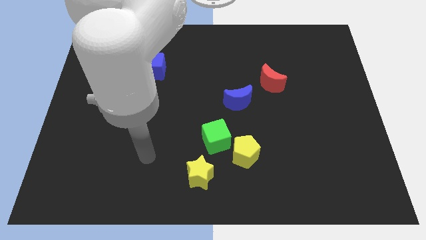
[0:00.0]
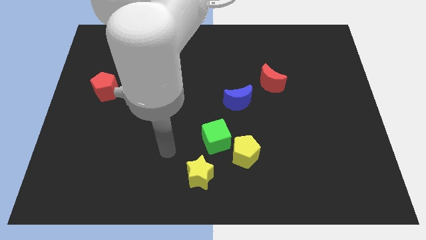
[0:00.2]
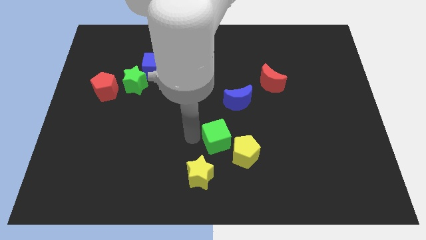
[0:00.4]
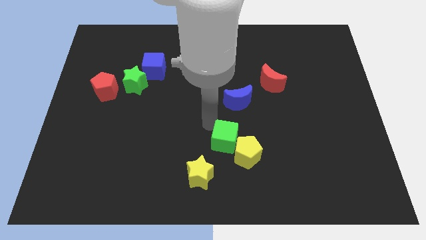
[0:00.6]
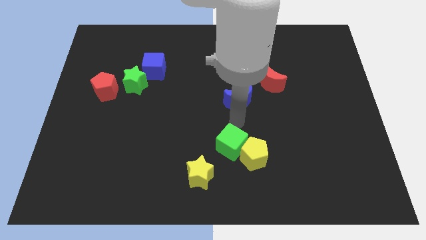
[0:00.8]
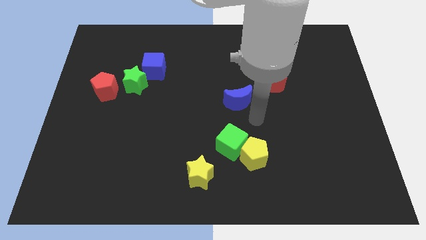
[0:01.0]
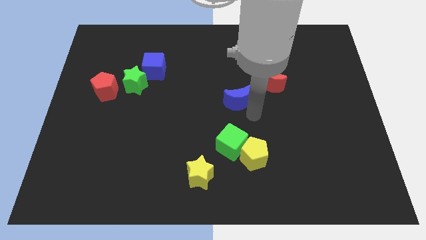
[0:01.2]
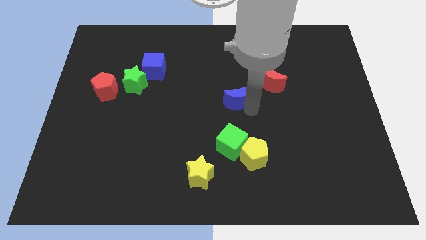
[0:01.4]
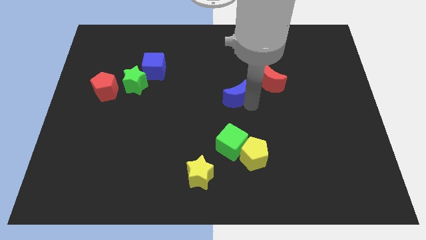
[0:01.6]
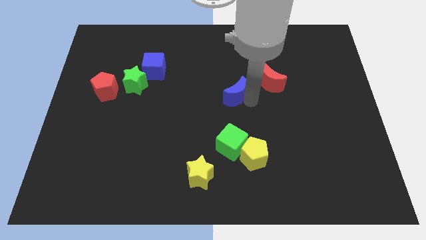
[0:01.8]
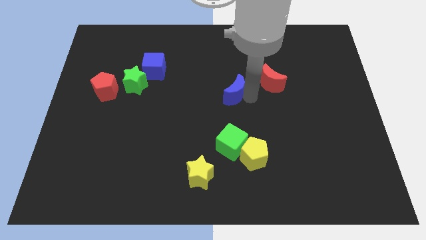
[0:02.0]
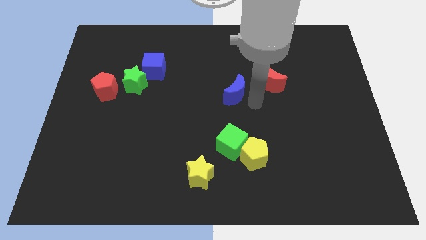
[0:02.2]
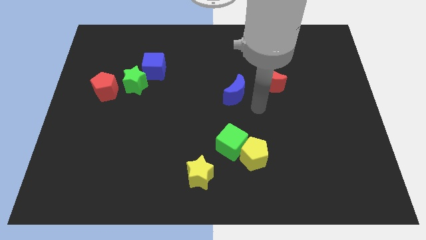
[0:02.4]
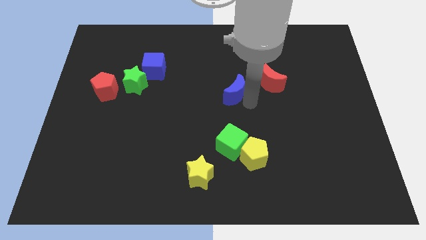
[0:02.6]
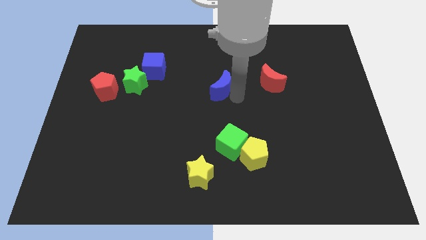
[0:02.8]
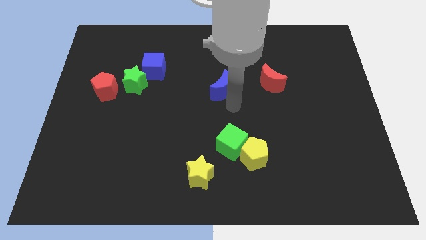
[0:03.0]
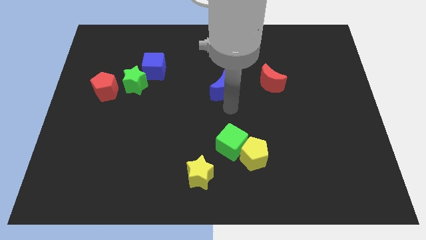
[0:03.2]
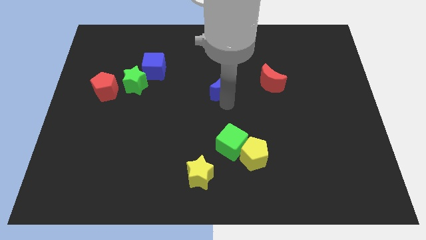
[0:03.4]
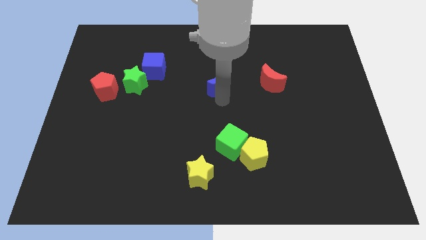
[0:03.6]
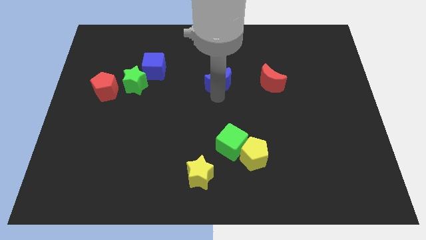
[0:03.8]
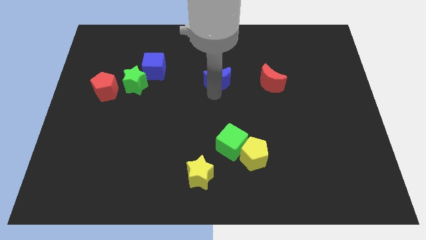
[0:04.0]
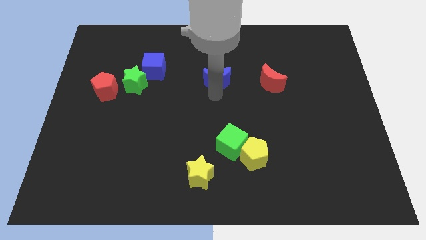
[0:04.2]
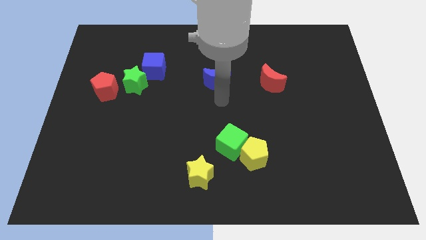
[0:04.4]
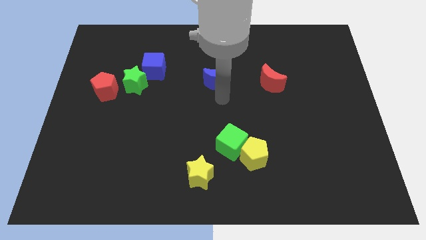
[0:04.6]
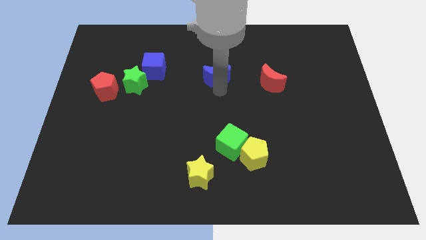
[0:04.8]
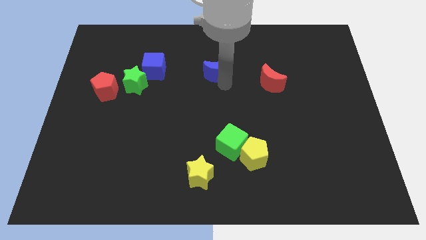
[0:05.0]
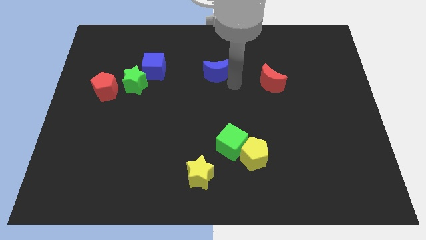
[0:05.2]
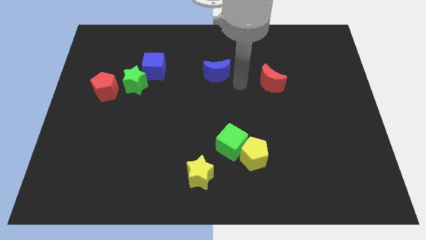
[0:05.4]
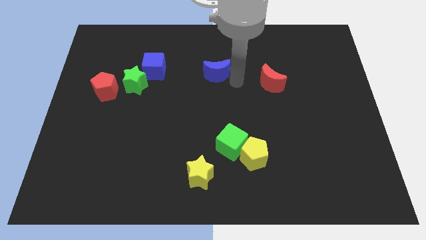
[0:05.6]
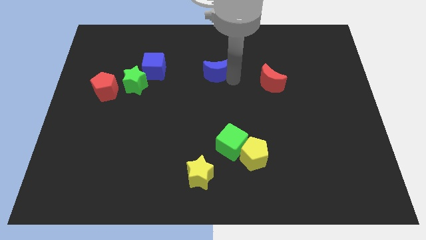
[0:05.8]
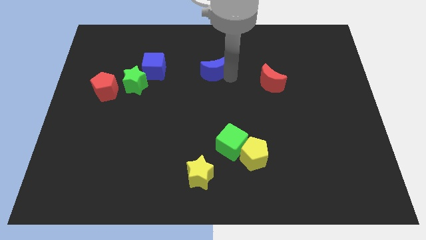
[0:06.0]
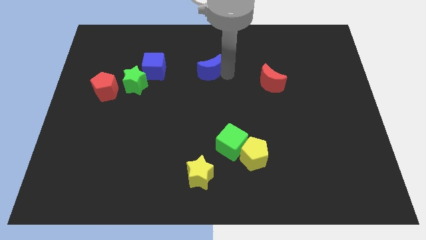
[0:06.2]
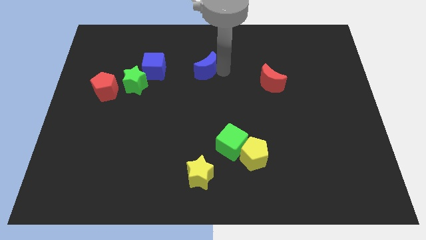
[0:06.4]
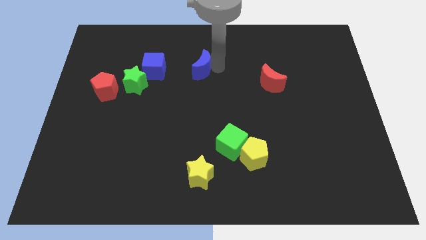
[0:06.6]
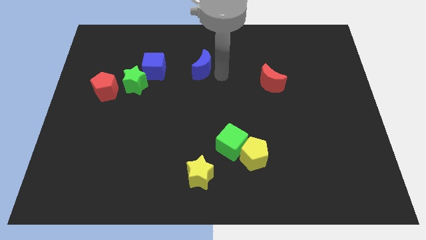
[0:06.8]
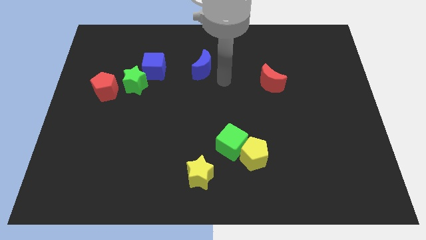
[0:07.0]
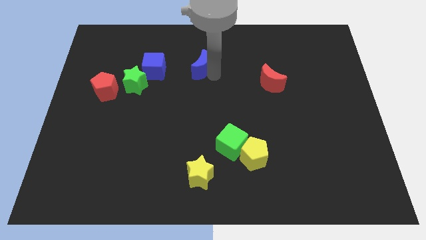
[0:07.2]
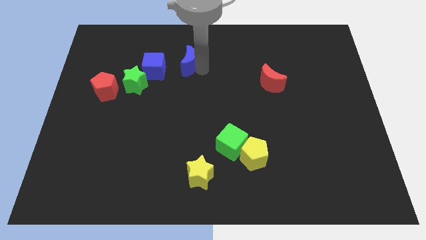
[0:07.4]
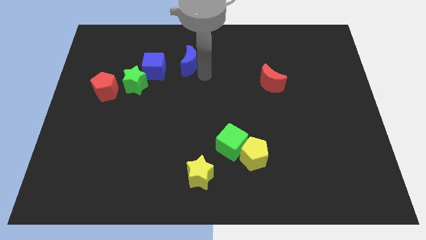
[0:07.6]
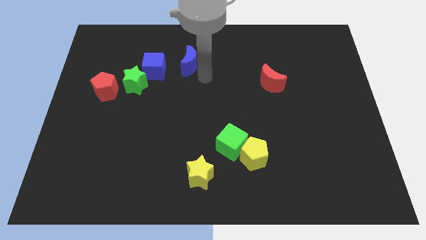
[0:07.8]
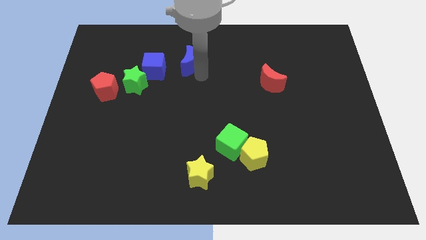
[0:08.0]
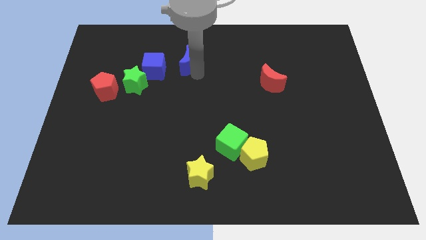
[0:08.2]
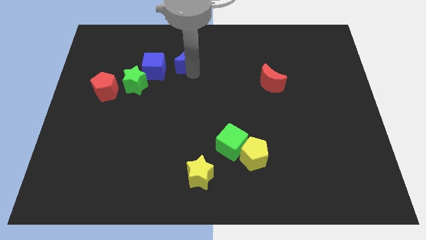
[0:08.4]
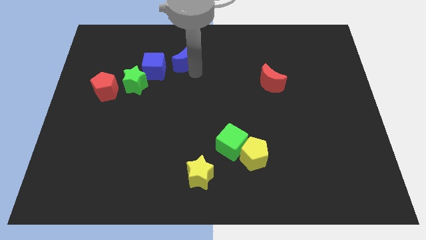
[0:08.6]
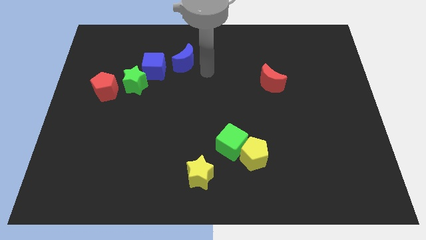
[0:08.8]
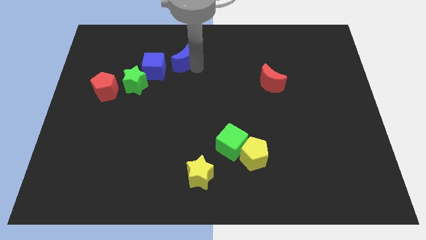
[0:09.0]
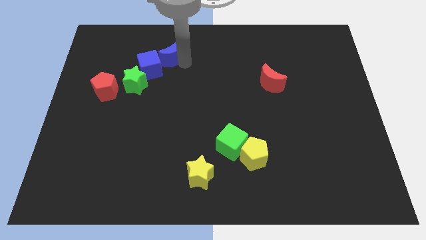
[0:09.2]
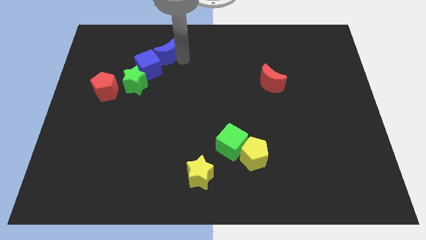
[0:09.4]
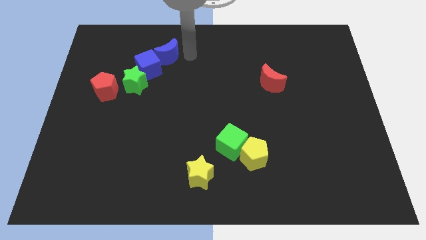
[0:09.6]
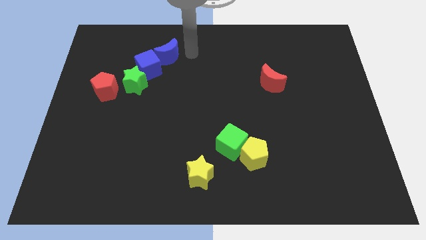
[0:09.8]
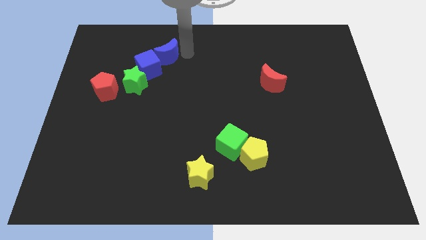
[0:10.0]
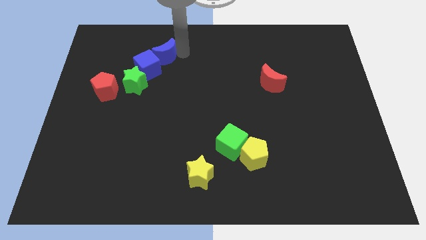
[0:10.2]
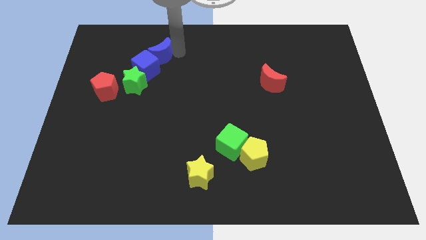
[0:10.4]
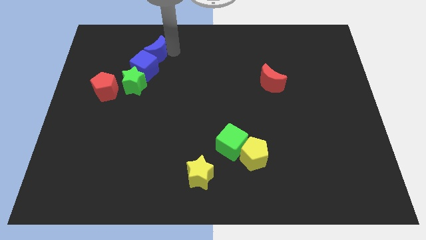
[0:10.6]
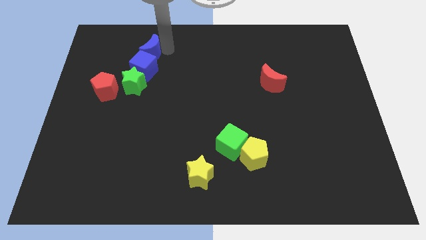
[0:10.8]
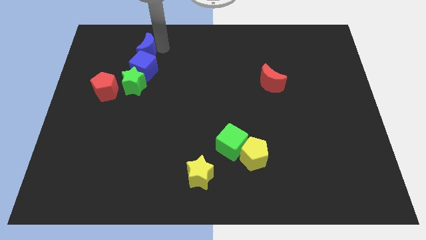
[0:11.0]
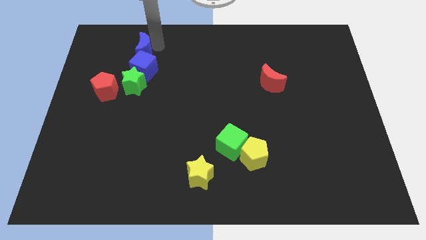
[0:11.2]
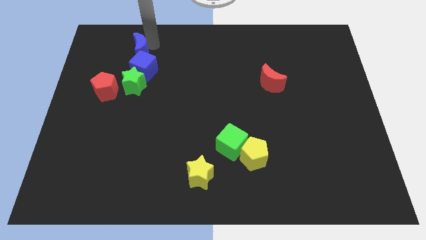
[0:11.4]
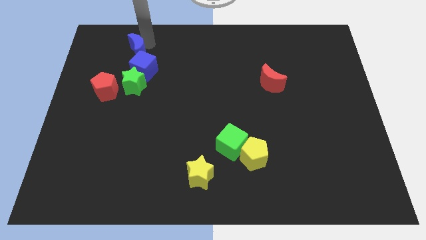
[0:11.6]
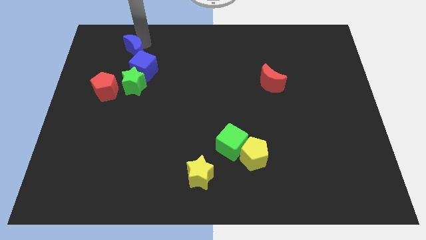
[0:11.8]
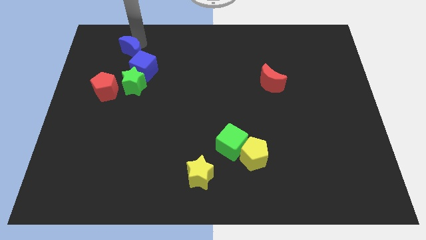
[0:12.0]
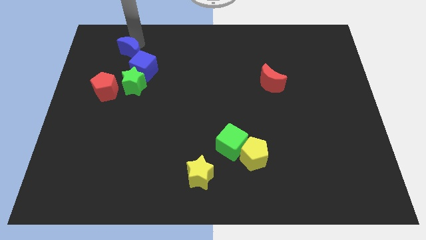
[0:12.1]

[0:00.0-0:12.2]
move the blue moon to the top side of the red pentagon

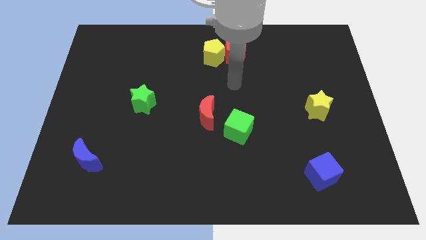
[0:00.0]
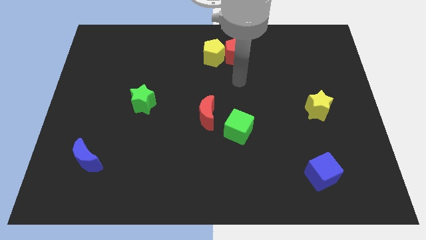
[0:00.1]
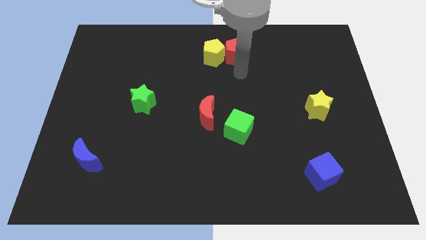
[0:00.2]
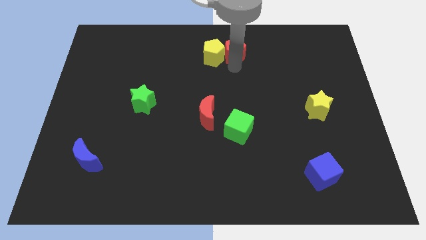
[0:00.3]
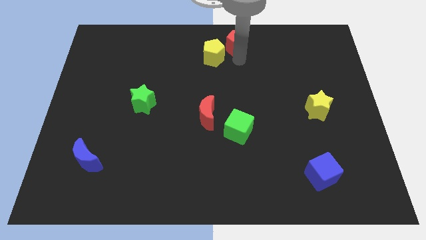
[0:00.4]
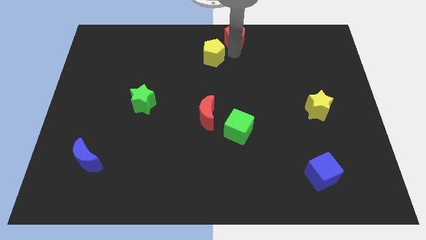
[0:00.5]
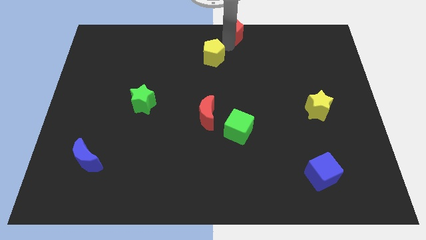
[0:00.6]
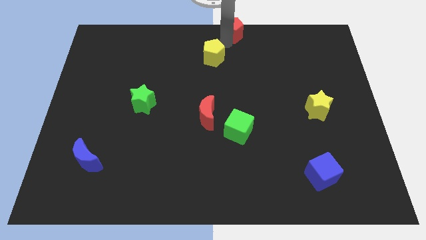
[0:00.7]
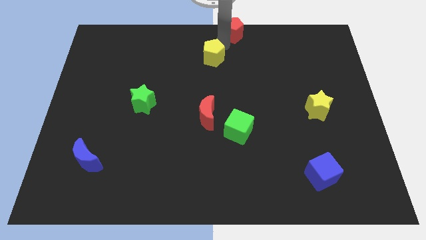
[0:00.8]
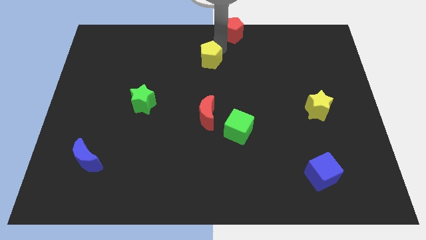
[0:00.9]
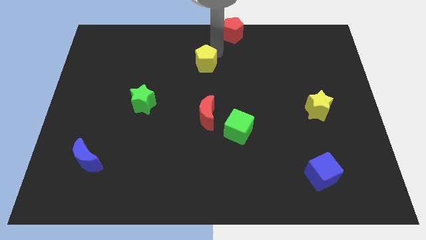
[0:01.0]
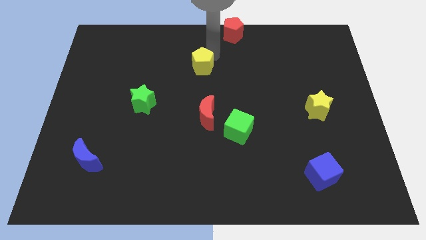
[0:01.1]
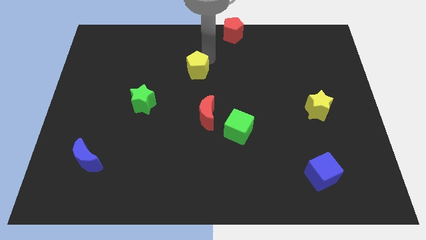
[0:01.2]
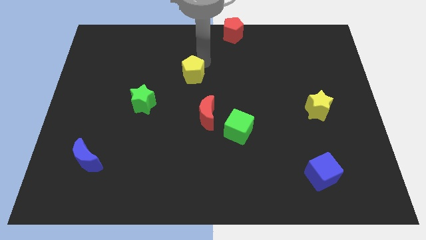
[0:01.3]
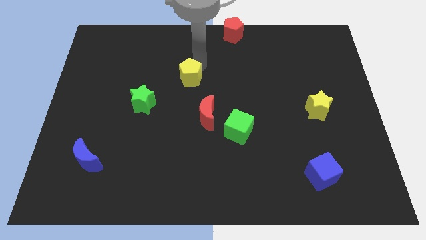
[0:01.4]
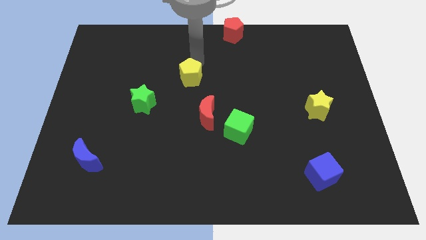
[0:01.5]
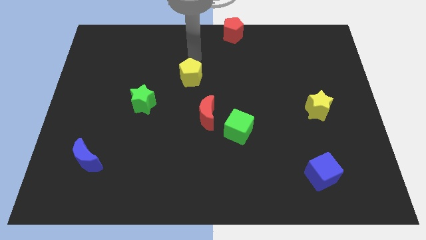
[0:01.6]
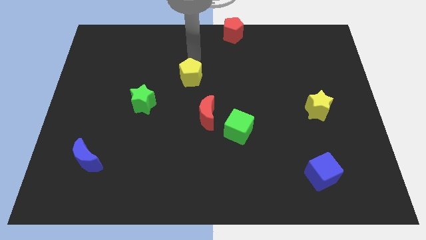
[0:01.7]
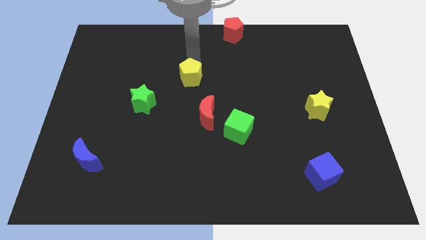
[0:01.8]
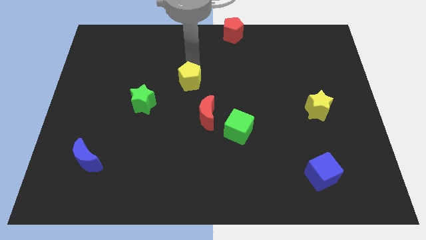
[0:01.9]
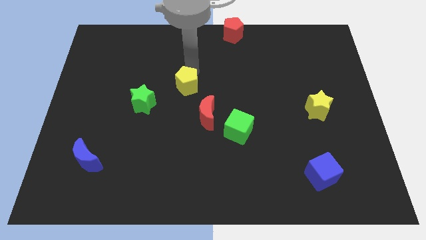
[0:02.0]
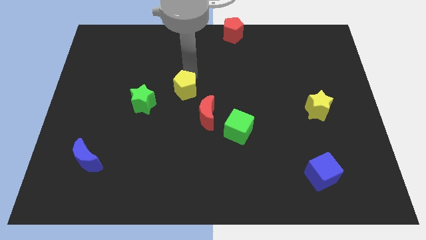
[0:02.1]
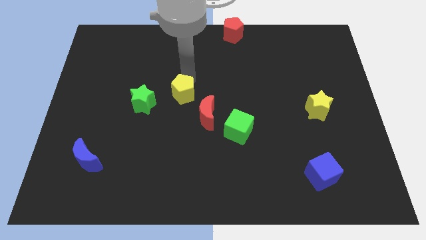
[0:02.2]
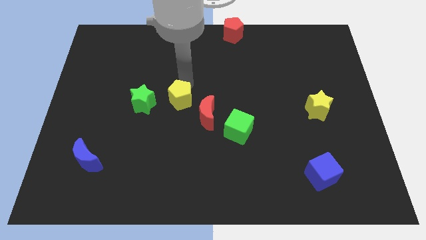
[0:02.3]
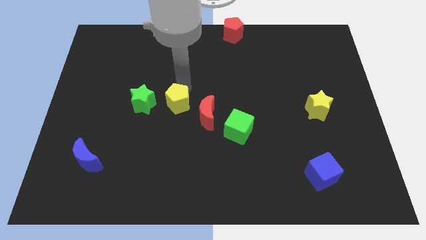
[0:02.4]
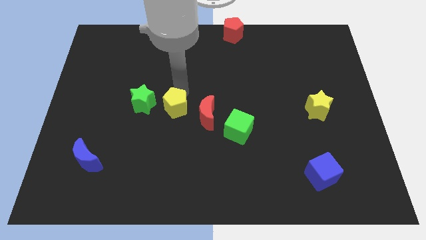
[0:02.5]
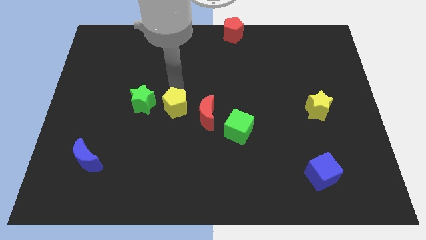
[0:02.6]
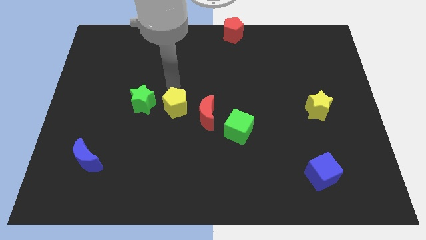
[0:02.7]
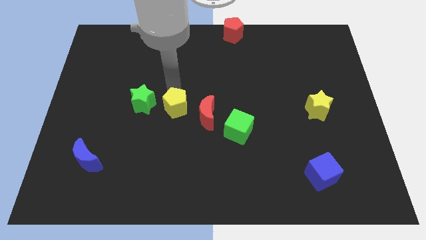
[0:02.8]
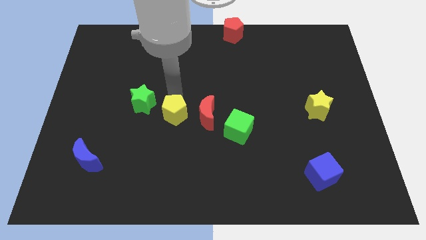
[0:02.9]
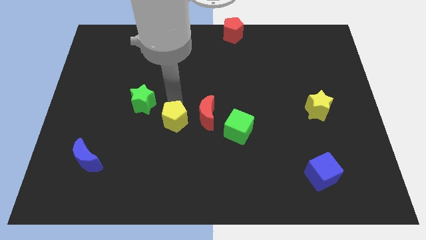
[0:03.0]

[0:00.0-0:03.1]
move the yellow pentagon to the bottom left of the red moon
